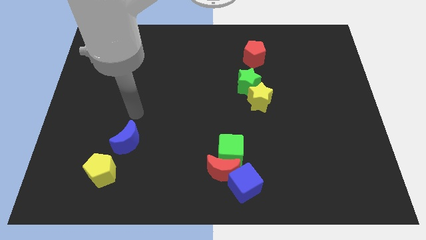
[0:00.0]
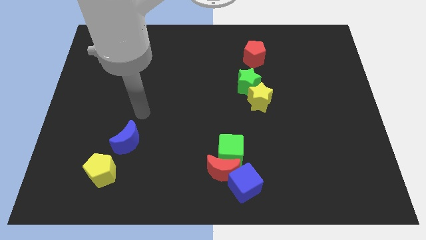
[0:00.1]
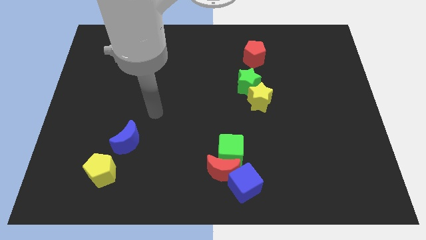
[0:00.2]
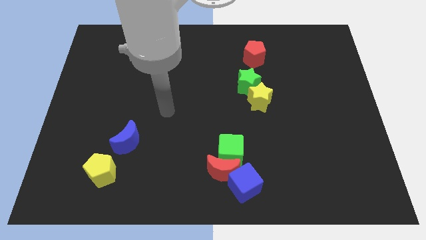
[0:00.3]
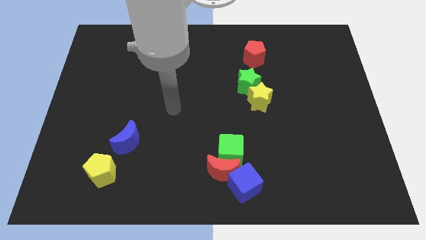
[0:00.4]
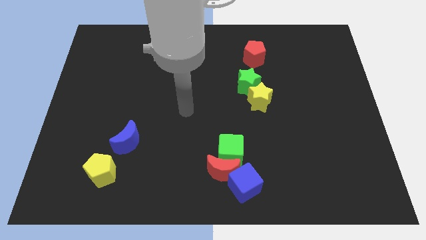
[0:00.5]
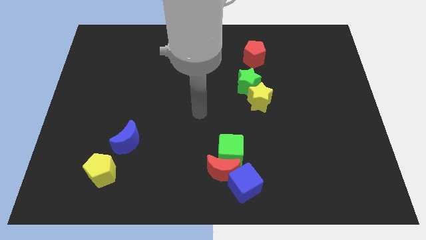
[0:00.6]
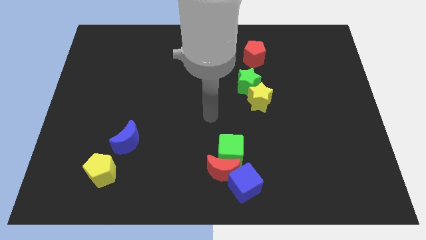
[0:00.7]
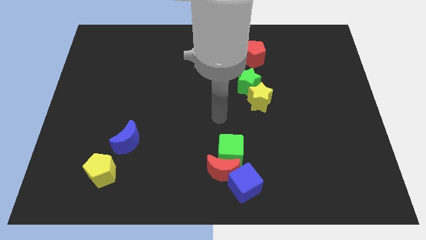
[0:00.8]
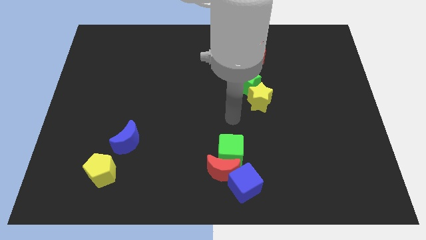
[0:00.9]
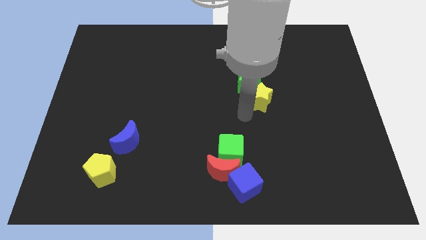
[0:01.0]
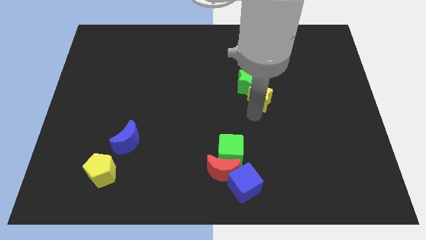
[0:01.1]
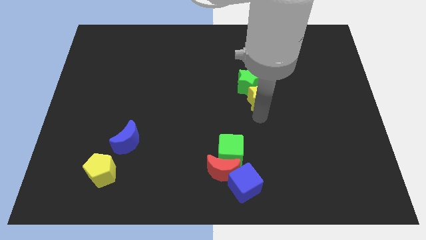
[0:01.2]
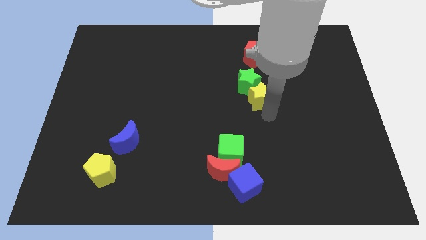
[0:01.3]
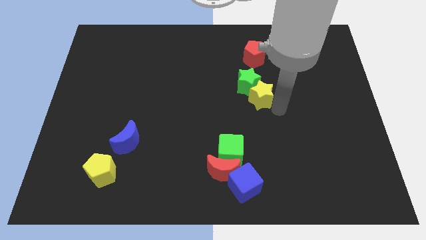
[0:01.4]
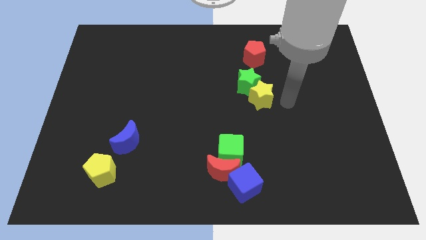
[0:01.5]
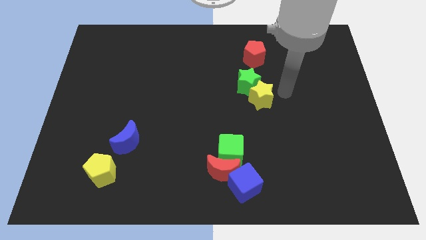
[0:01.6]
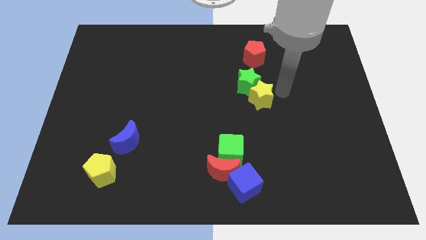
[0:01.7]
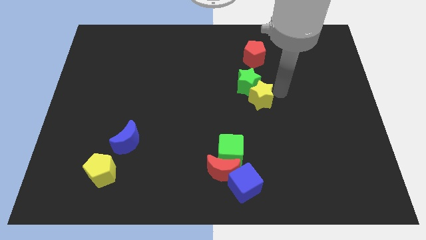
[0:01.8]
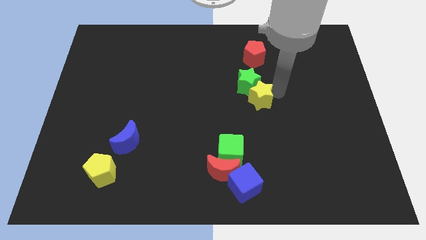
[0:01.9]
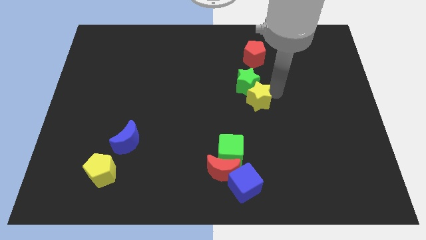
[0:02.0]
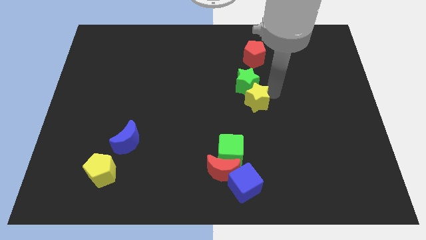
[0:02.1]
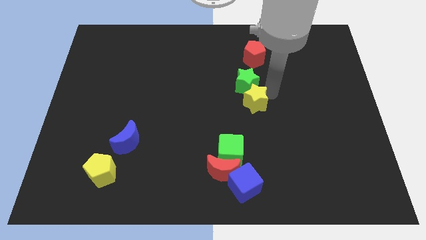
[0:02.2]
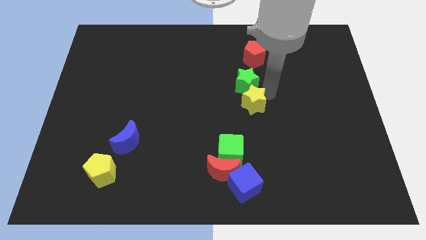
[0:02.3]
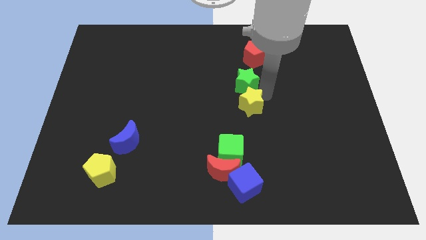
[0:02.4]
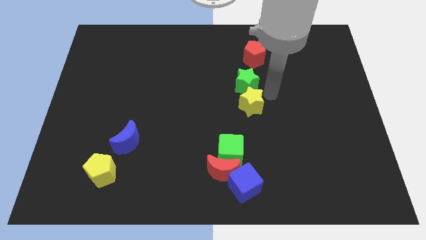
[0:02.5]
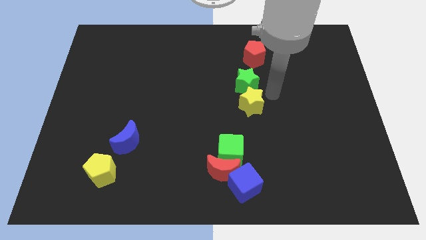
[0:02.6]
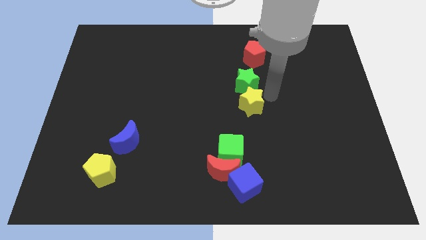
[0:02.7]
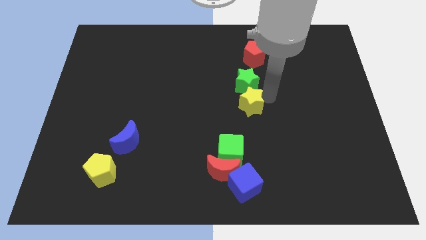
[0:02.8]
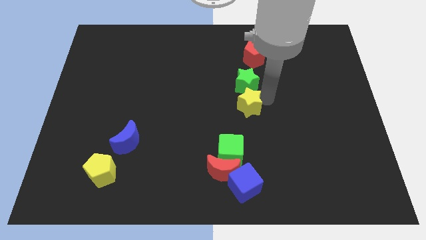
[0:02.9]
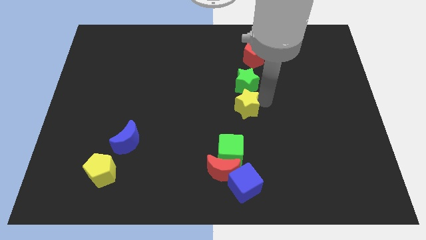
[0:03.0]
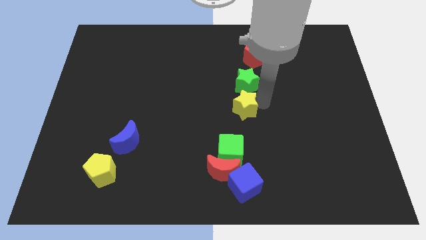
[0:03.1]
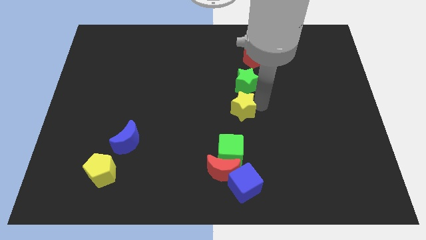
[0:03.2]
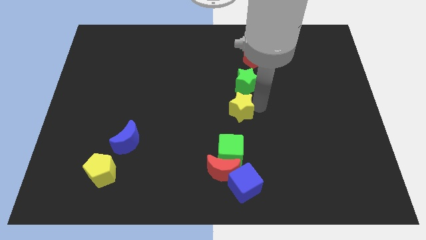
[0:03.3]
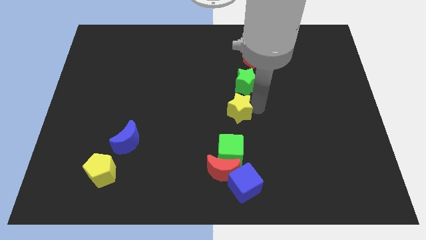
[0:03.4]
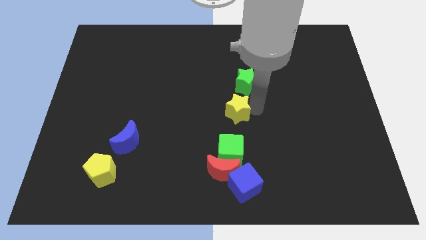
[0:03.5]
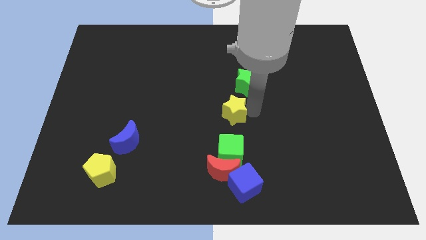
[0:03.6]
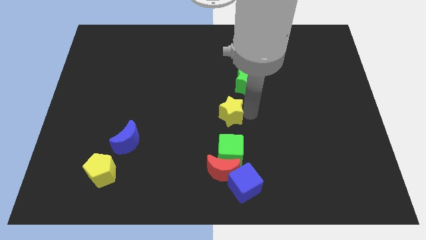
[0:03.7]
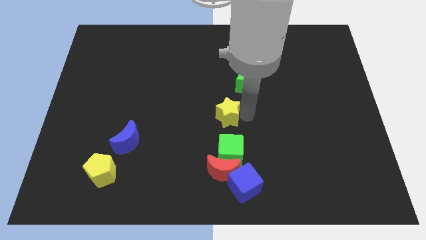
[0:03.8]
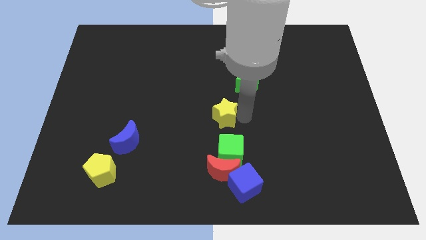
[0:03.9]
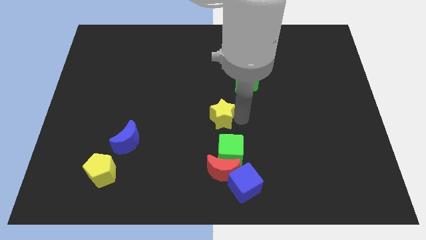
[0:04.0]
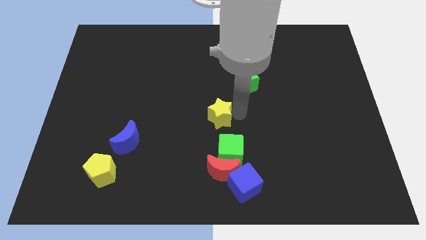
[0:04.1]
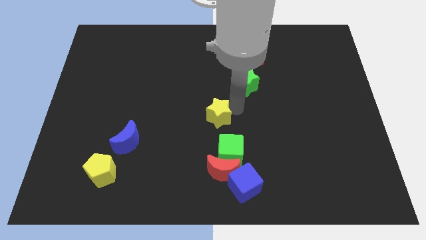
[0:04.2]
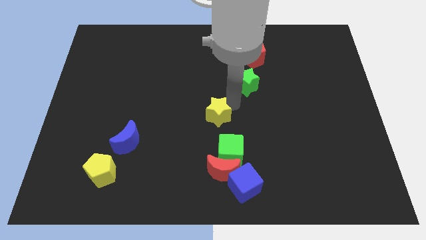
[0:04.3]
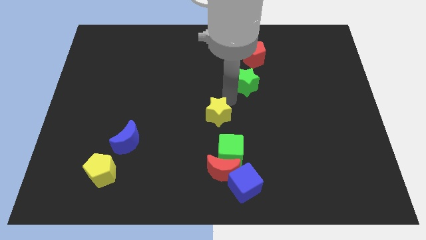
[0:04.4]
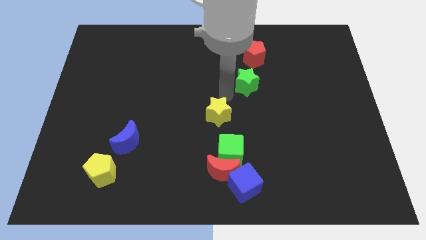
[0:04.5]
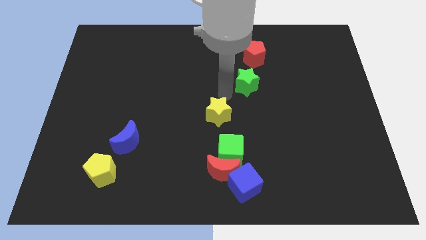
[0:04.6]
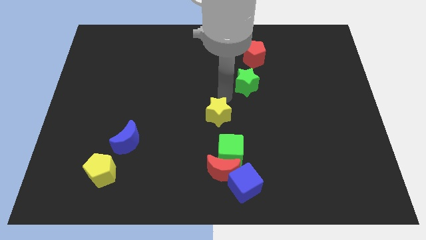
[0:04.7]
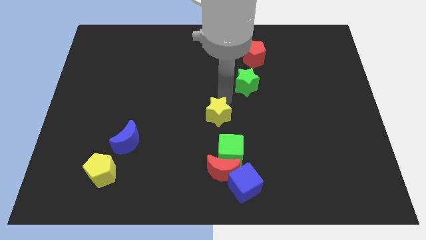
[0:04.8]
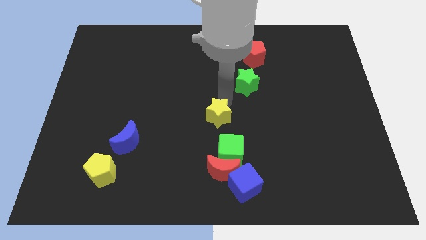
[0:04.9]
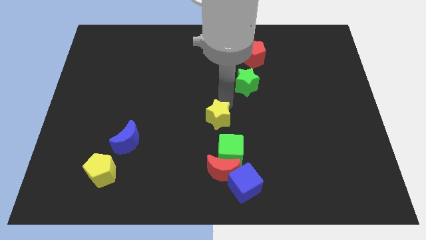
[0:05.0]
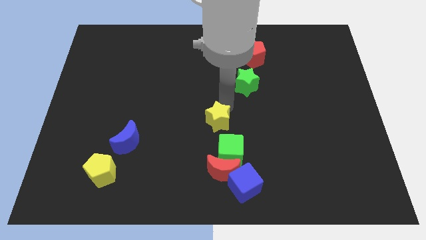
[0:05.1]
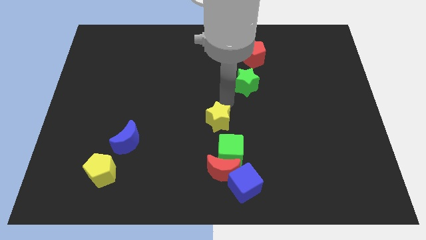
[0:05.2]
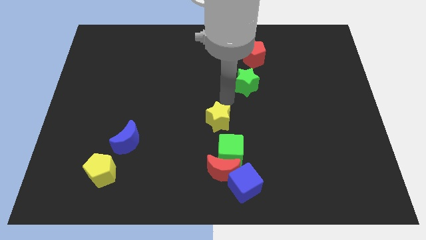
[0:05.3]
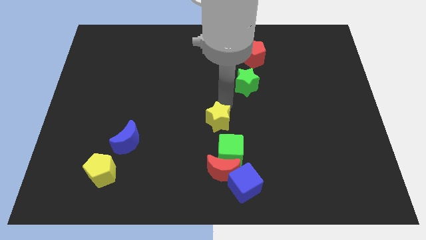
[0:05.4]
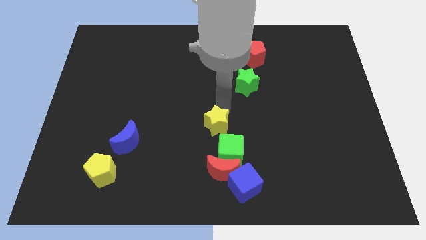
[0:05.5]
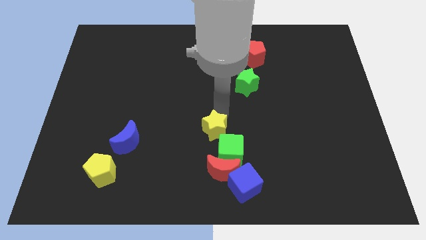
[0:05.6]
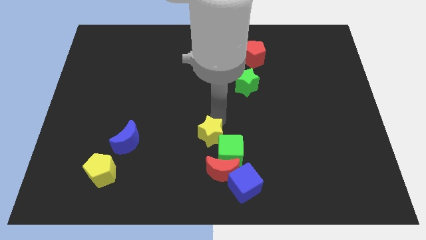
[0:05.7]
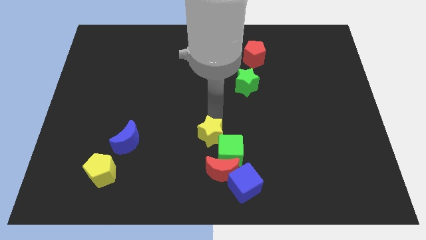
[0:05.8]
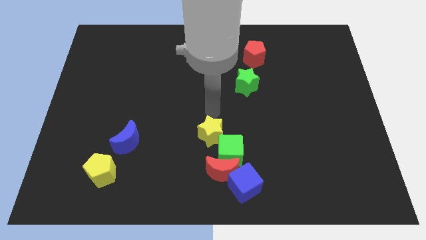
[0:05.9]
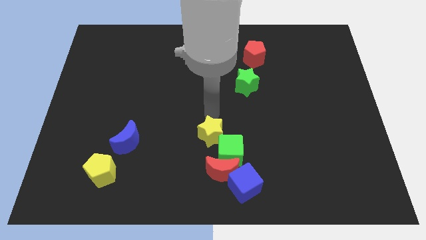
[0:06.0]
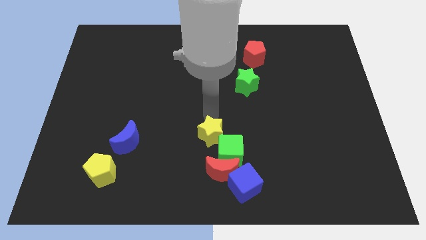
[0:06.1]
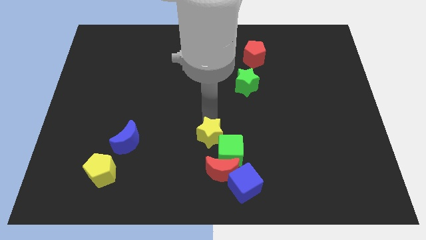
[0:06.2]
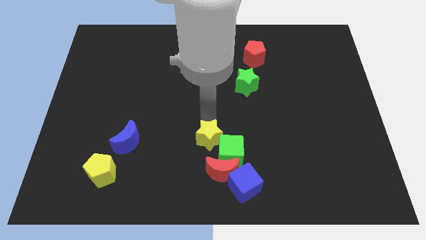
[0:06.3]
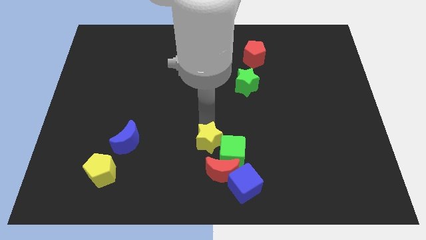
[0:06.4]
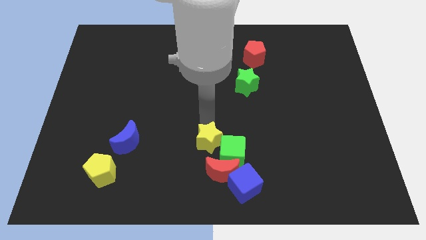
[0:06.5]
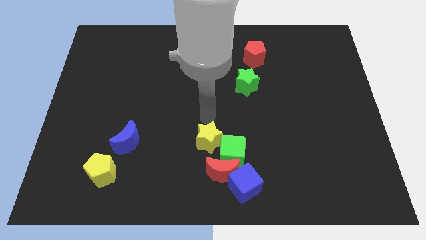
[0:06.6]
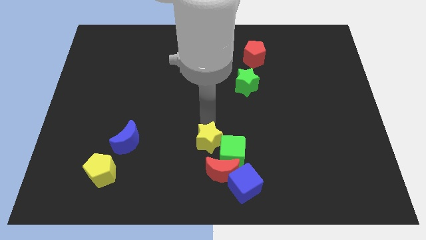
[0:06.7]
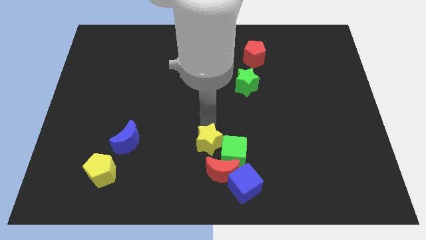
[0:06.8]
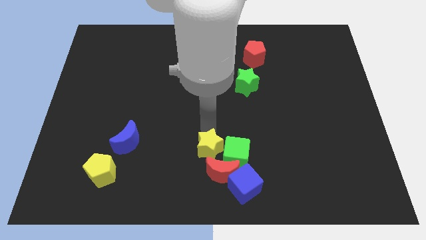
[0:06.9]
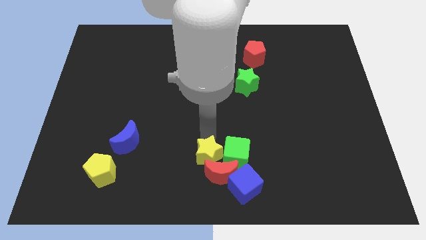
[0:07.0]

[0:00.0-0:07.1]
move the yellow star next to the red moon
